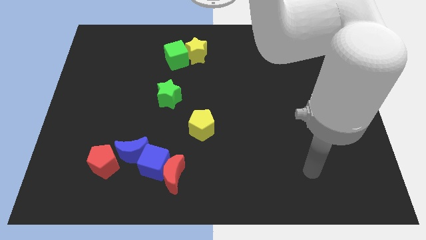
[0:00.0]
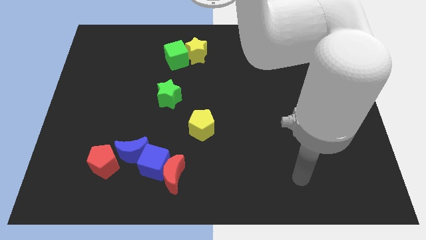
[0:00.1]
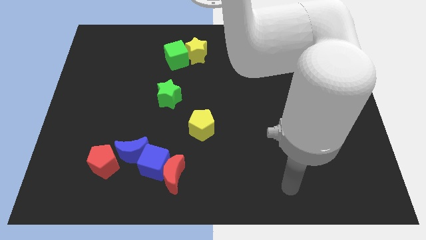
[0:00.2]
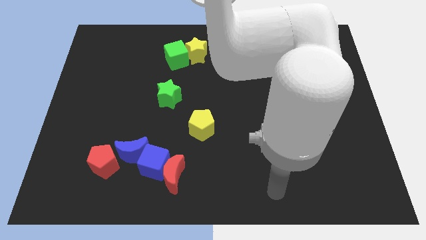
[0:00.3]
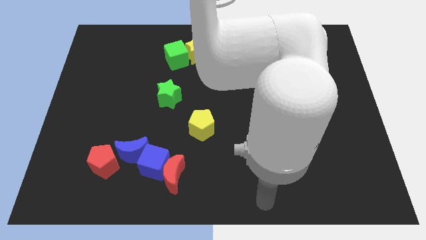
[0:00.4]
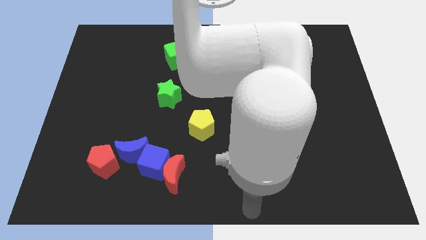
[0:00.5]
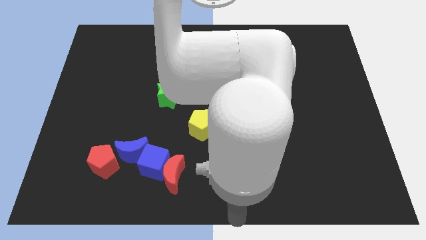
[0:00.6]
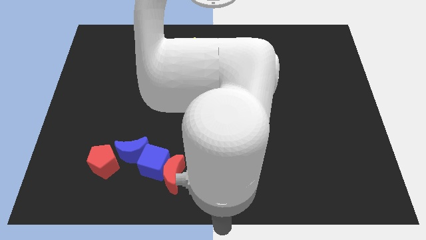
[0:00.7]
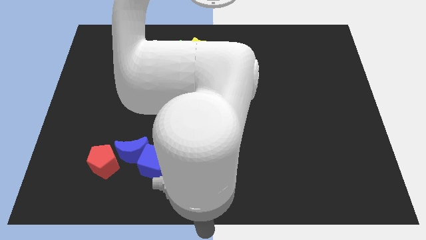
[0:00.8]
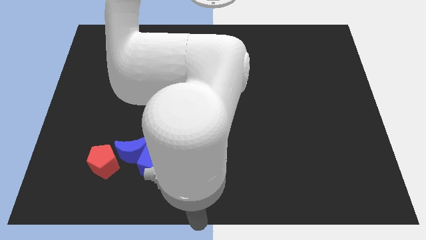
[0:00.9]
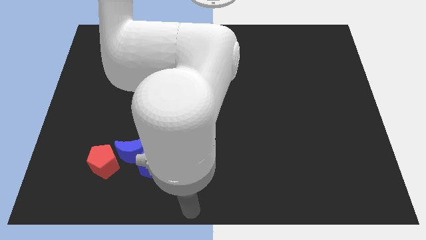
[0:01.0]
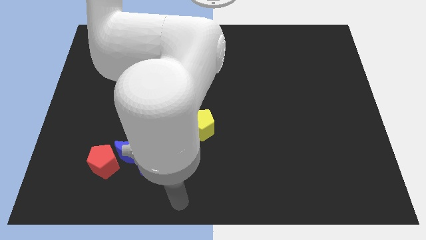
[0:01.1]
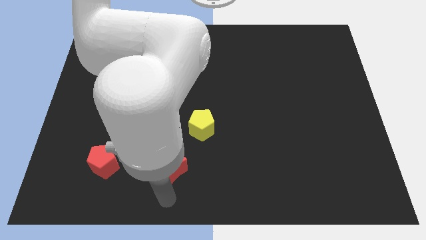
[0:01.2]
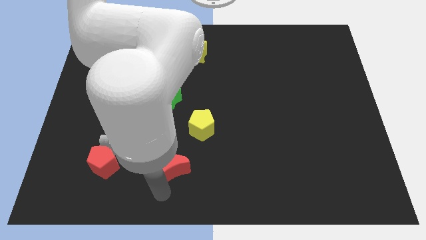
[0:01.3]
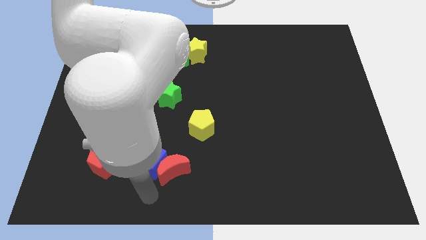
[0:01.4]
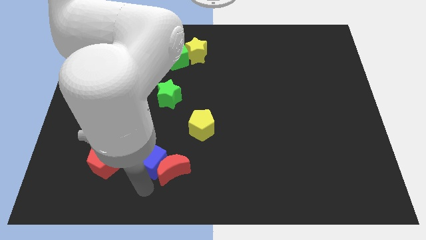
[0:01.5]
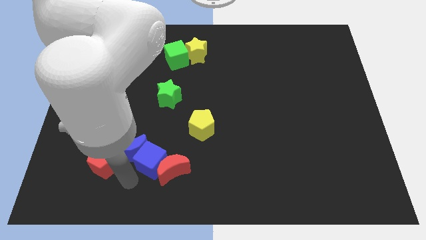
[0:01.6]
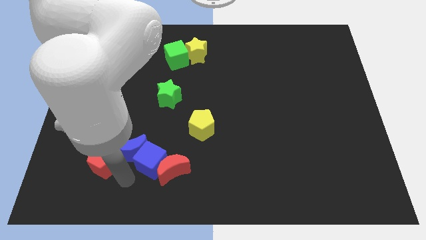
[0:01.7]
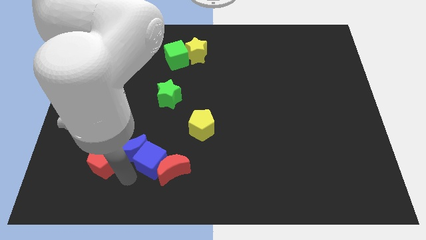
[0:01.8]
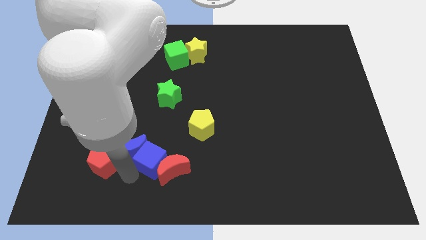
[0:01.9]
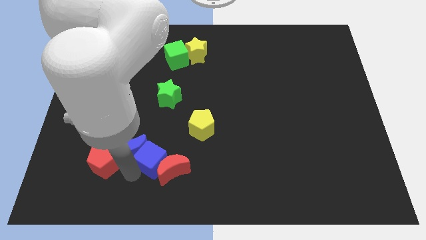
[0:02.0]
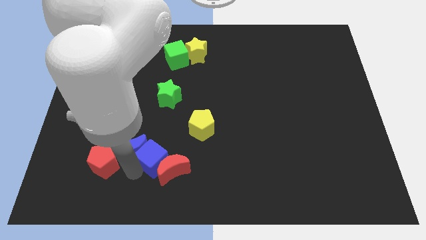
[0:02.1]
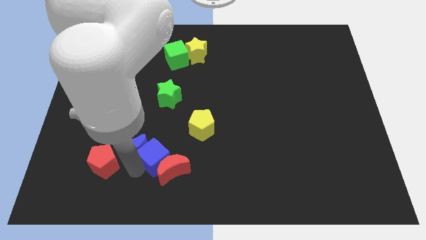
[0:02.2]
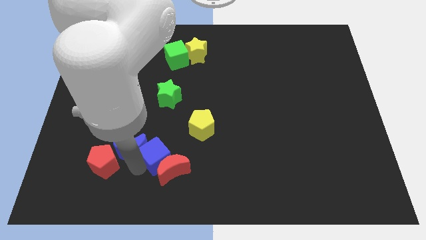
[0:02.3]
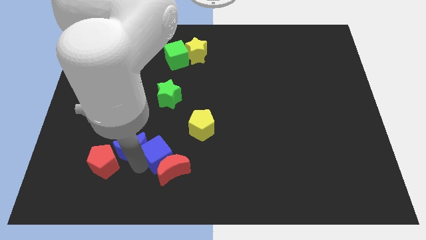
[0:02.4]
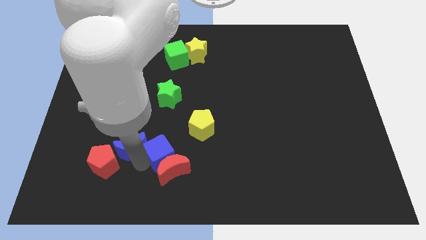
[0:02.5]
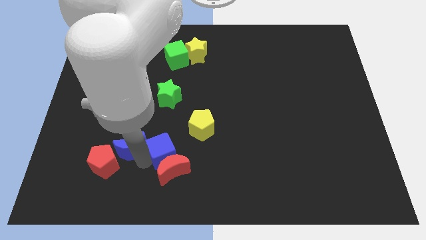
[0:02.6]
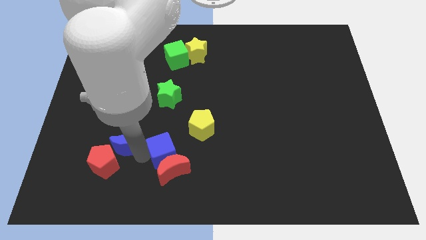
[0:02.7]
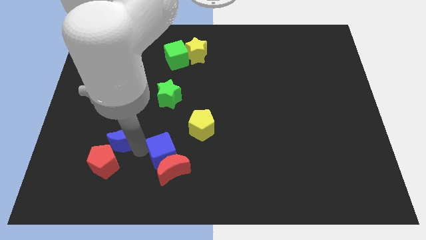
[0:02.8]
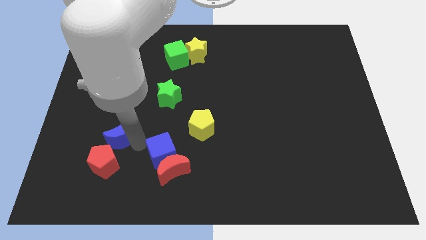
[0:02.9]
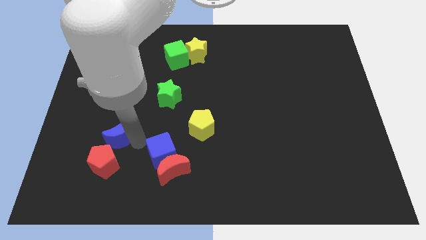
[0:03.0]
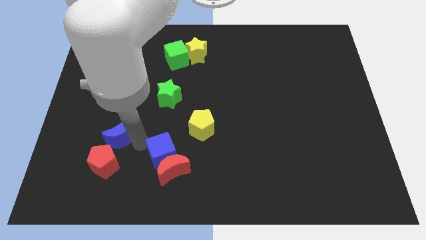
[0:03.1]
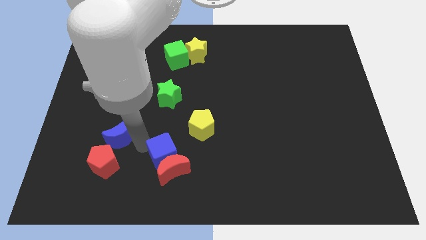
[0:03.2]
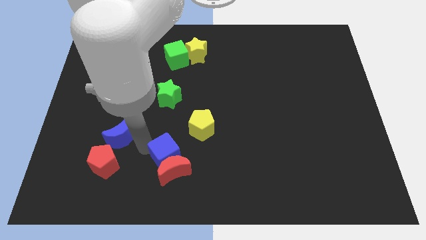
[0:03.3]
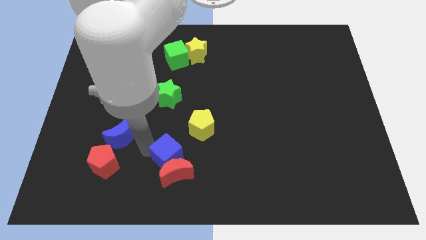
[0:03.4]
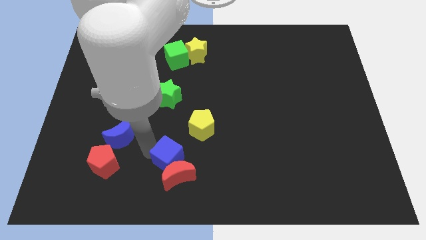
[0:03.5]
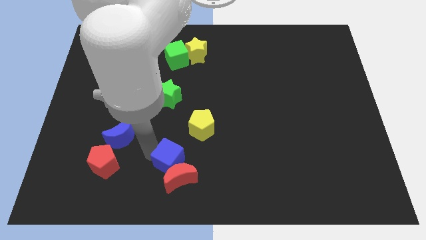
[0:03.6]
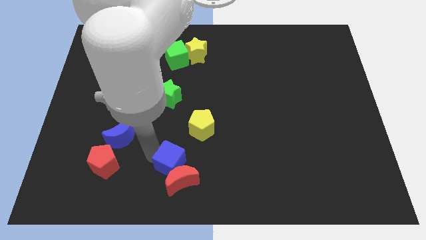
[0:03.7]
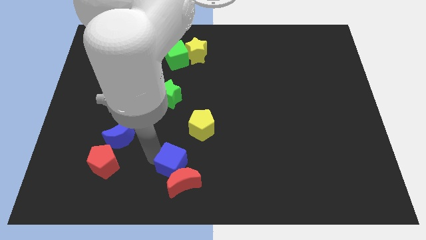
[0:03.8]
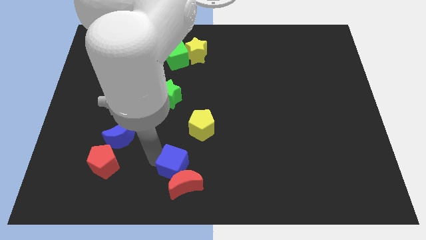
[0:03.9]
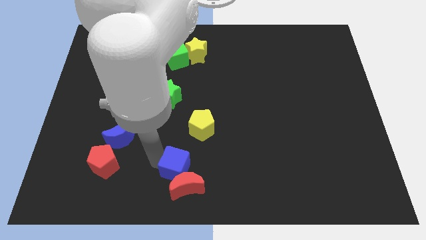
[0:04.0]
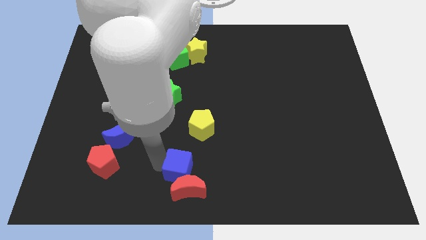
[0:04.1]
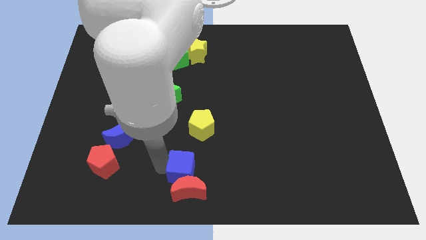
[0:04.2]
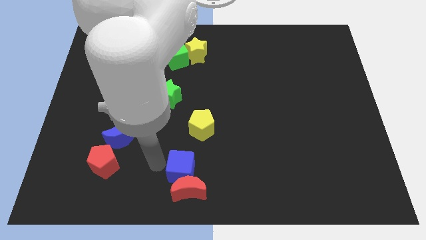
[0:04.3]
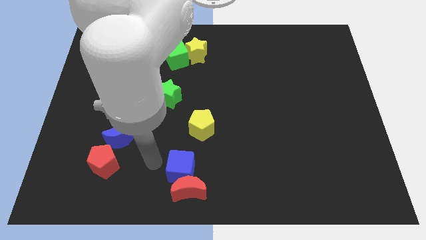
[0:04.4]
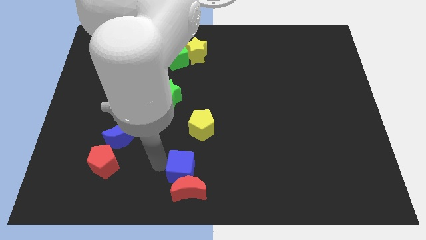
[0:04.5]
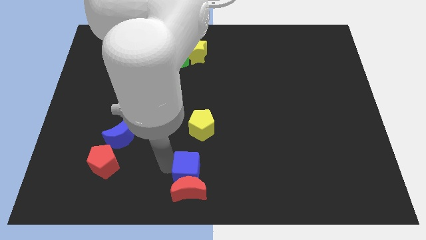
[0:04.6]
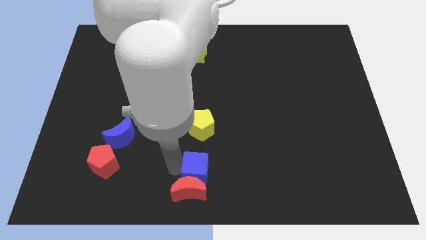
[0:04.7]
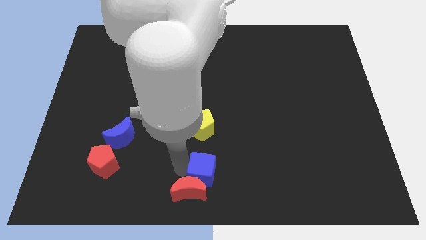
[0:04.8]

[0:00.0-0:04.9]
pull the blue cube apart from the red moon and blue moon

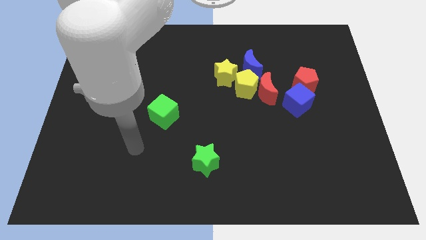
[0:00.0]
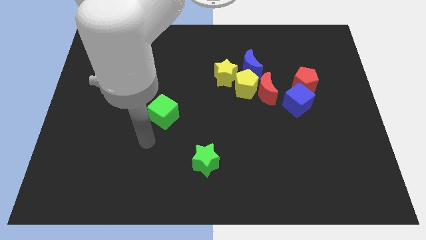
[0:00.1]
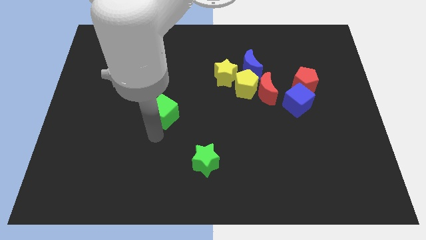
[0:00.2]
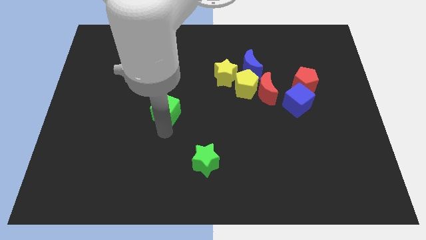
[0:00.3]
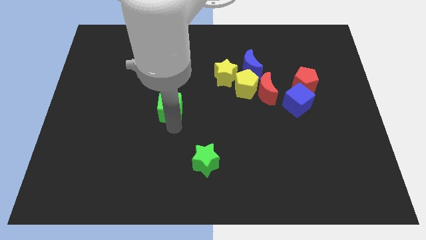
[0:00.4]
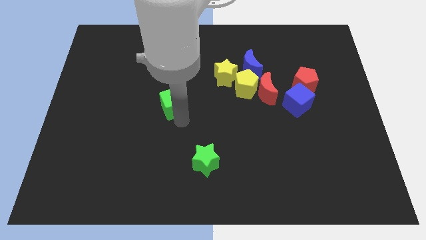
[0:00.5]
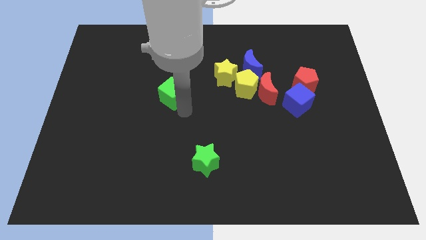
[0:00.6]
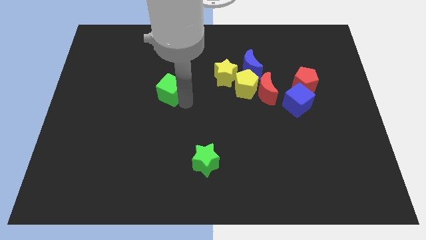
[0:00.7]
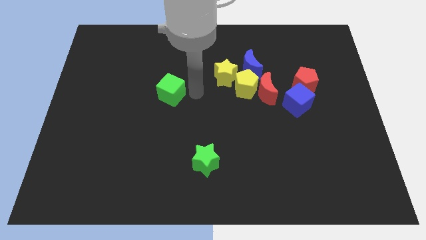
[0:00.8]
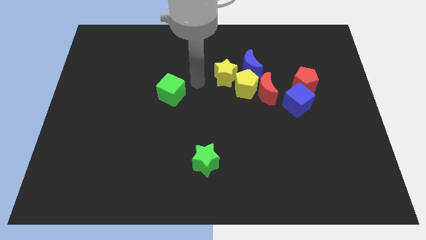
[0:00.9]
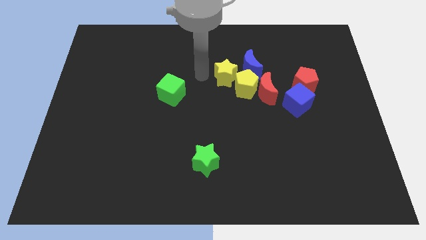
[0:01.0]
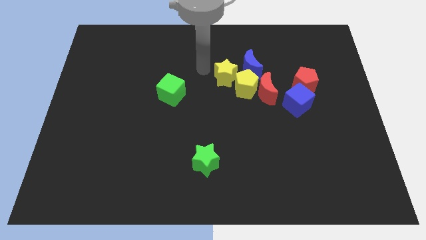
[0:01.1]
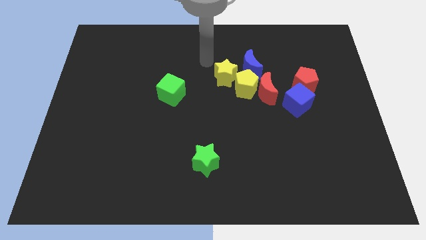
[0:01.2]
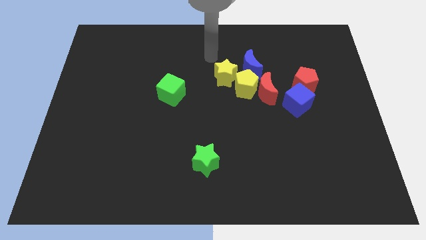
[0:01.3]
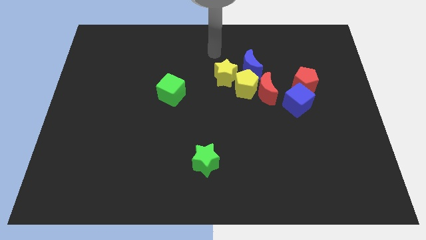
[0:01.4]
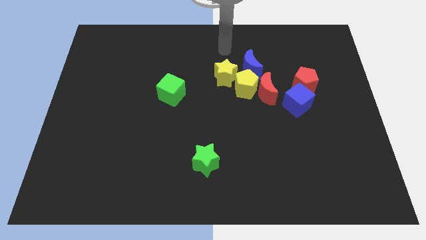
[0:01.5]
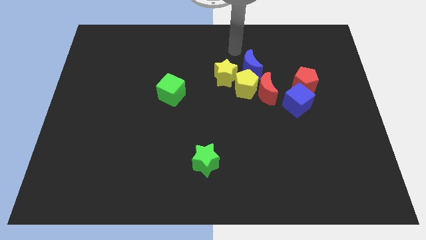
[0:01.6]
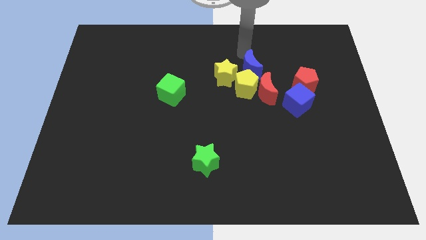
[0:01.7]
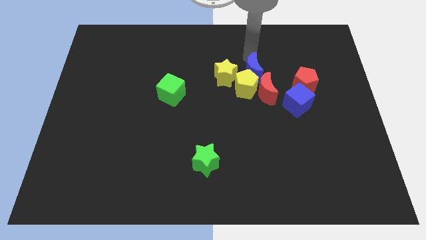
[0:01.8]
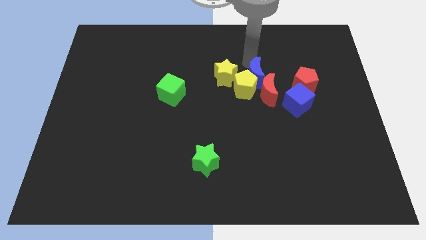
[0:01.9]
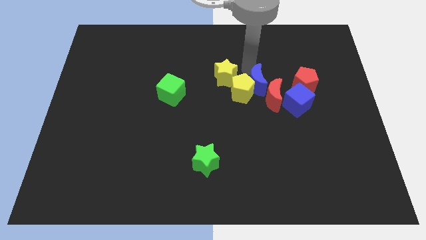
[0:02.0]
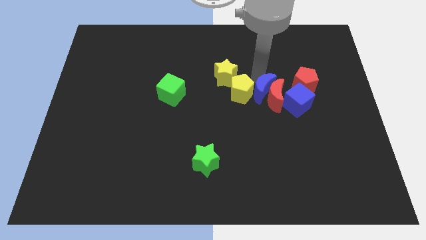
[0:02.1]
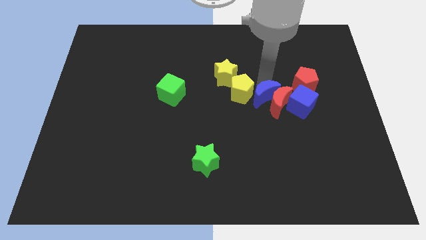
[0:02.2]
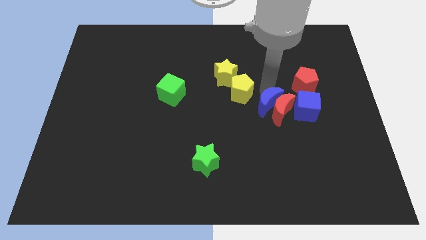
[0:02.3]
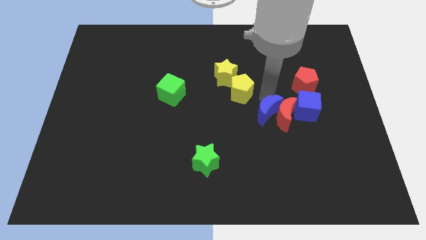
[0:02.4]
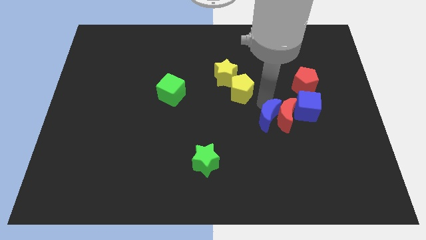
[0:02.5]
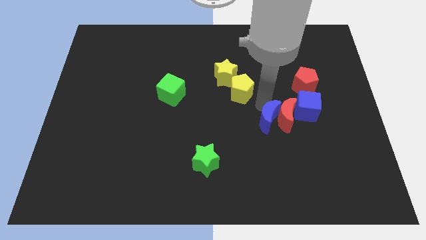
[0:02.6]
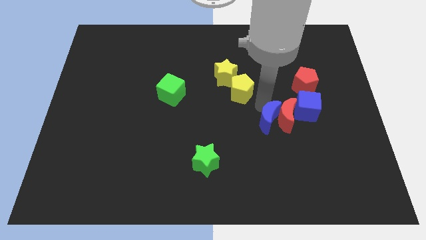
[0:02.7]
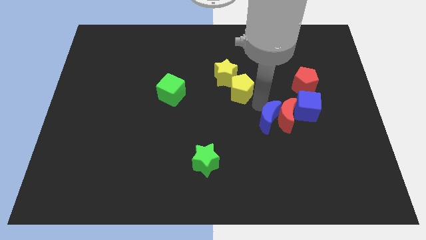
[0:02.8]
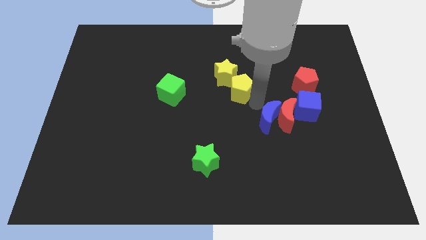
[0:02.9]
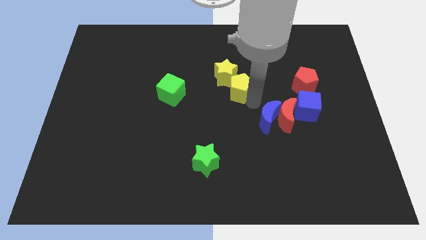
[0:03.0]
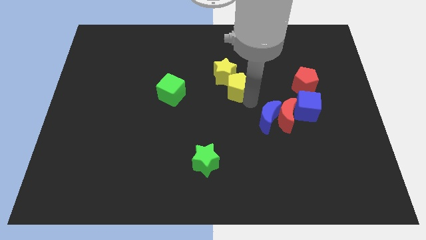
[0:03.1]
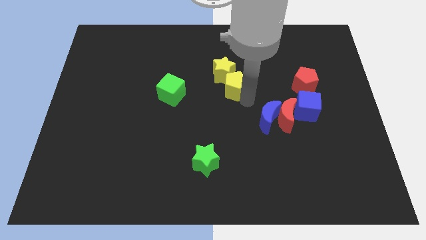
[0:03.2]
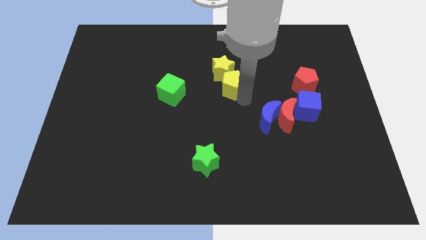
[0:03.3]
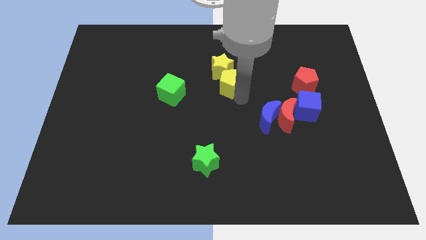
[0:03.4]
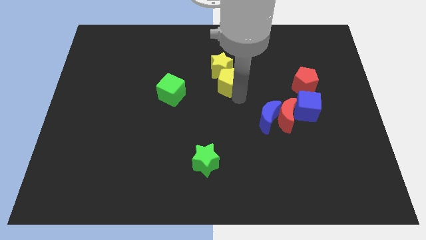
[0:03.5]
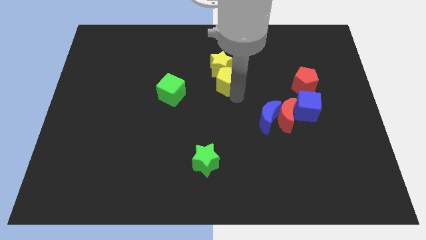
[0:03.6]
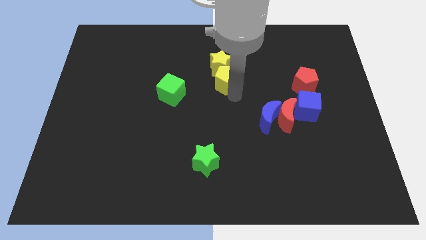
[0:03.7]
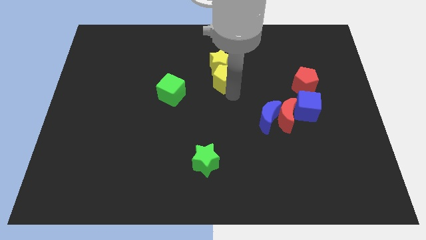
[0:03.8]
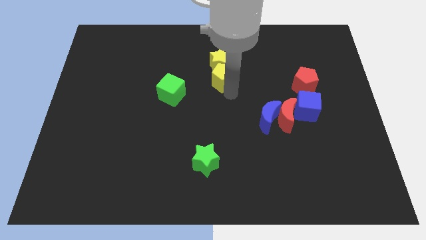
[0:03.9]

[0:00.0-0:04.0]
pull the yellow pentagon apart from the red moon, yellow star, and blue moon

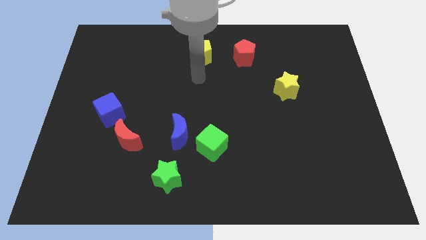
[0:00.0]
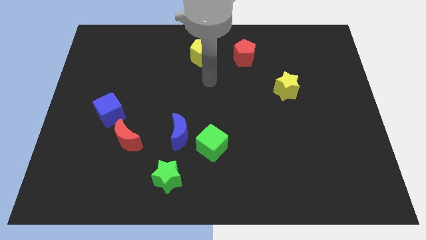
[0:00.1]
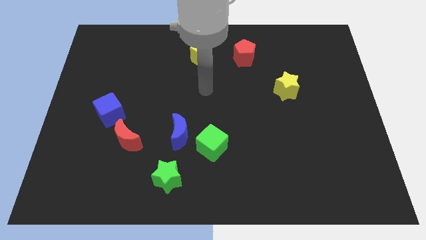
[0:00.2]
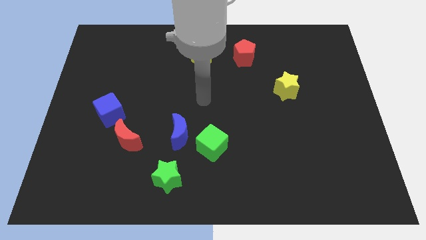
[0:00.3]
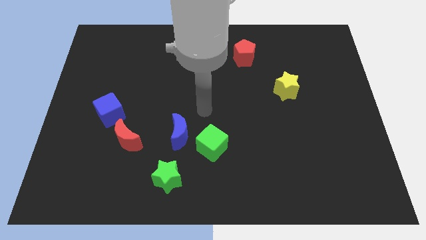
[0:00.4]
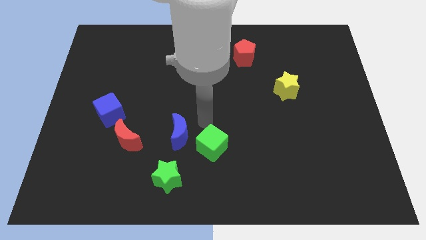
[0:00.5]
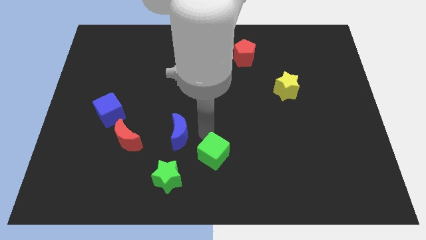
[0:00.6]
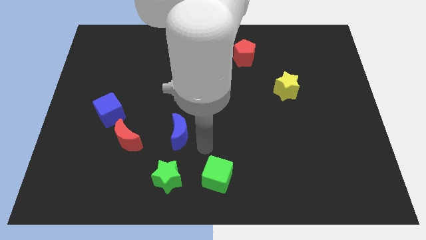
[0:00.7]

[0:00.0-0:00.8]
separate the blue moon from the green cube
